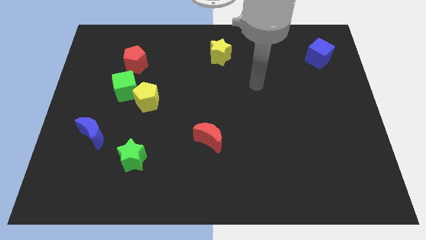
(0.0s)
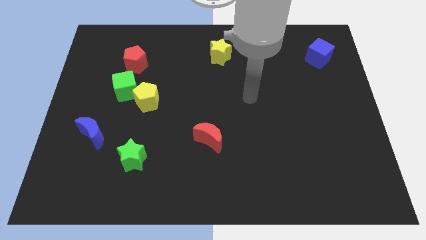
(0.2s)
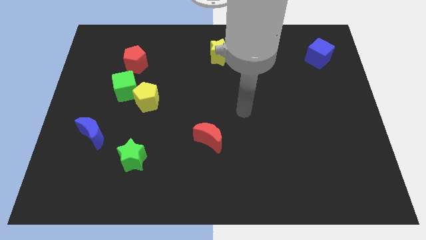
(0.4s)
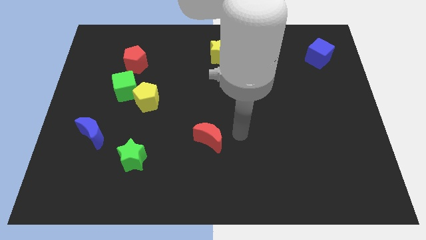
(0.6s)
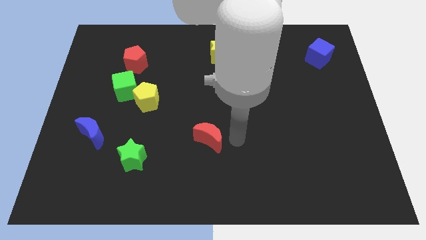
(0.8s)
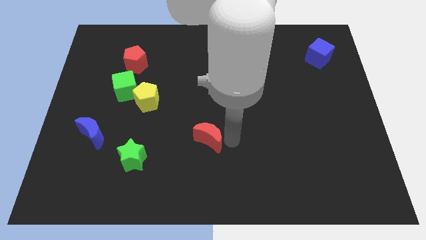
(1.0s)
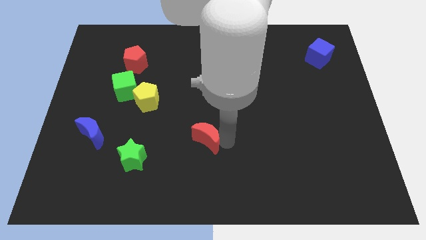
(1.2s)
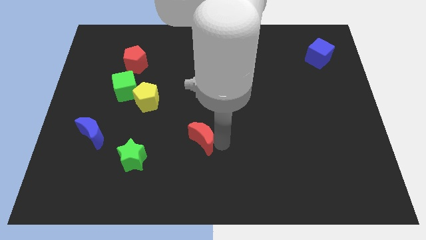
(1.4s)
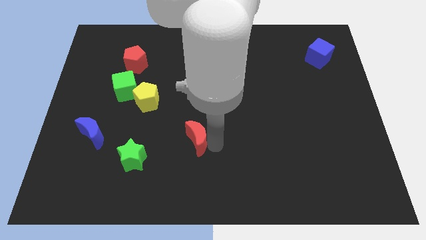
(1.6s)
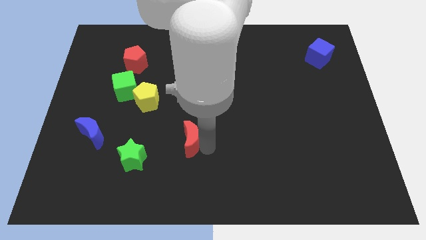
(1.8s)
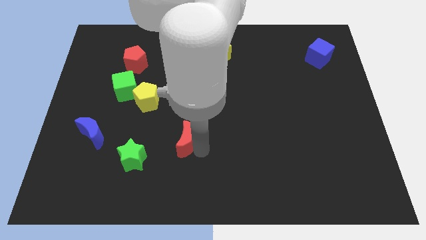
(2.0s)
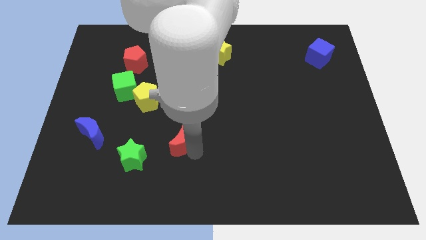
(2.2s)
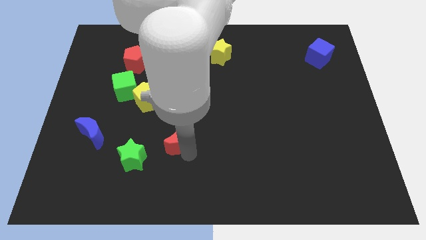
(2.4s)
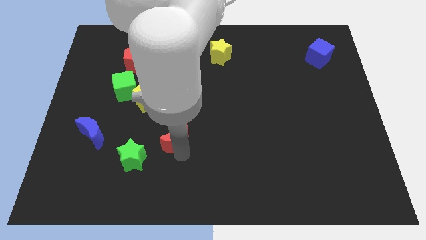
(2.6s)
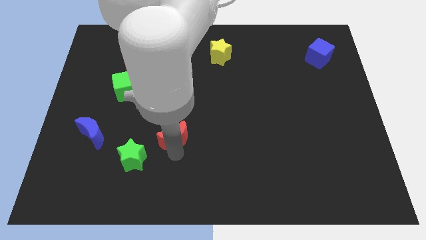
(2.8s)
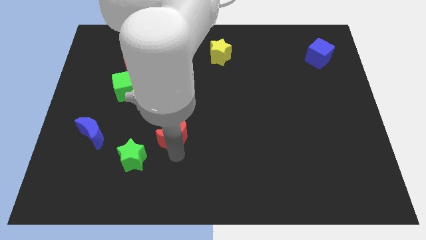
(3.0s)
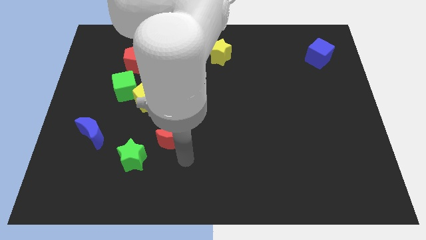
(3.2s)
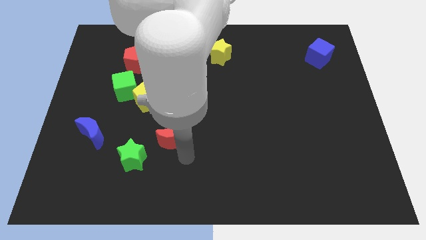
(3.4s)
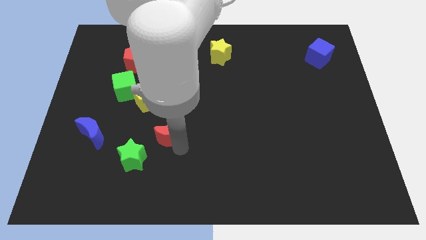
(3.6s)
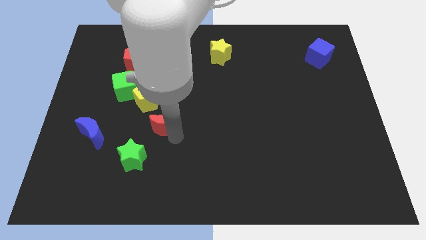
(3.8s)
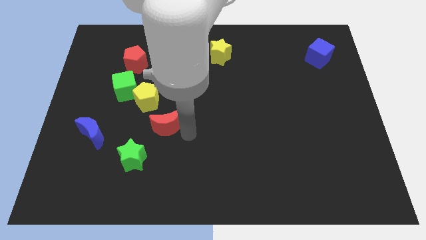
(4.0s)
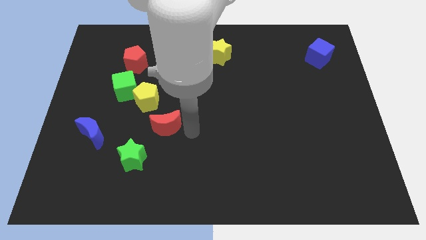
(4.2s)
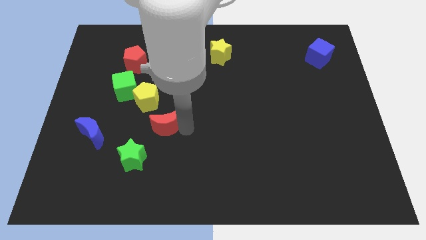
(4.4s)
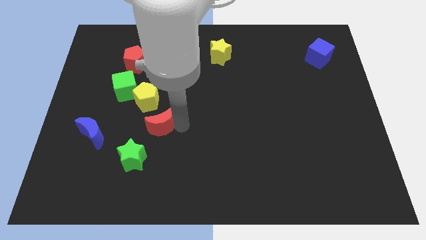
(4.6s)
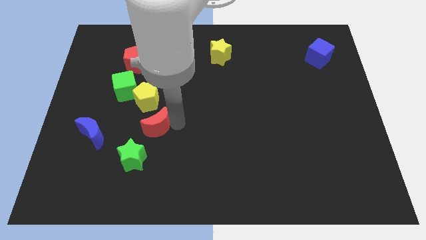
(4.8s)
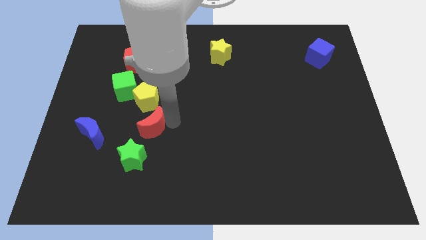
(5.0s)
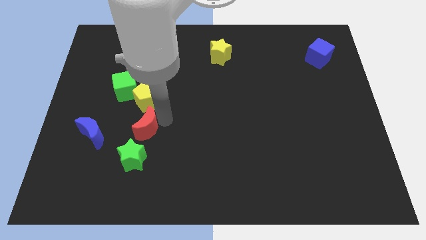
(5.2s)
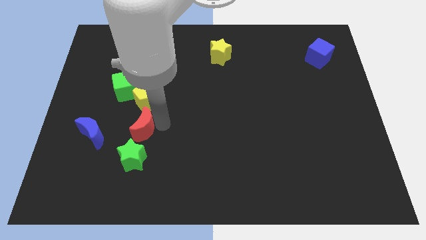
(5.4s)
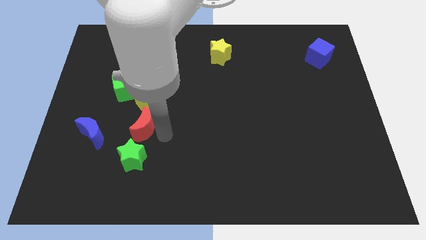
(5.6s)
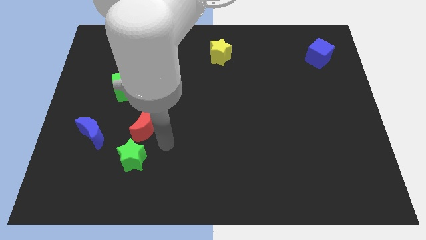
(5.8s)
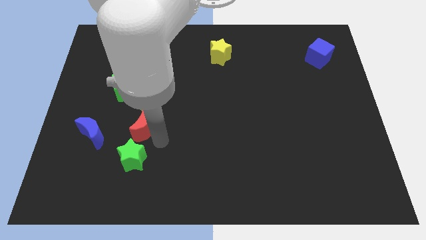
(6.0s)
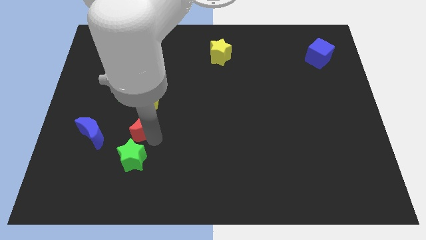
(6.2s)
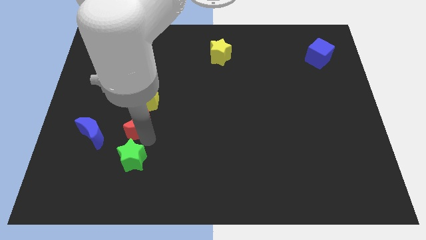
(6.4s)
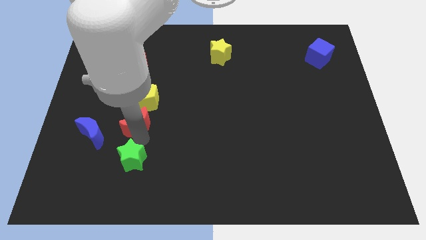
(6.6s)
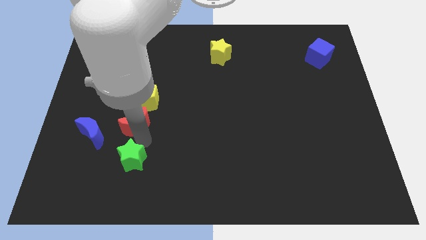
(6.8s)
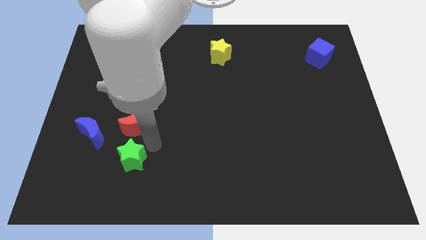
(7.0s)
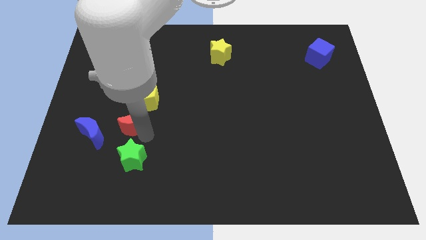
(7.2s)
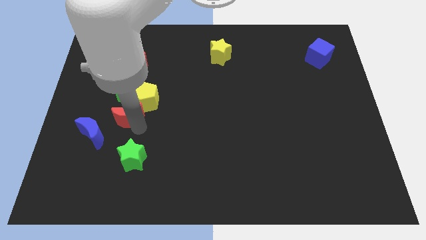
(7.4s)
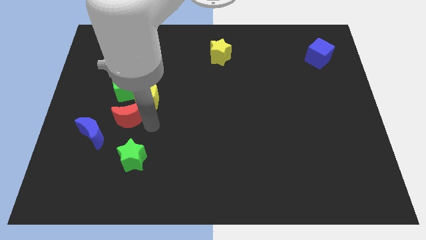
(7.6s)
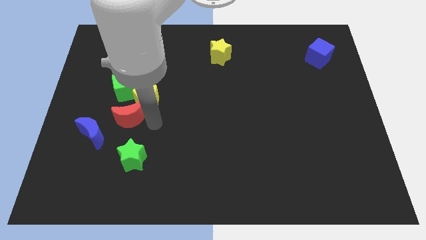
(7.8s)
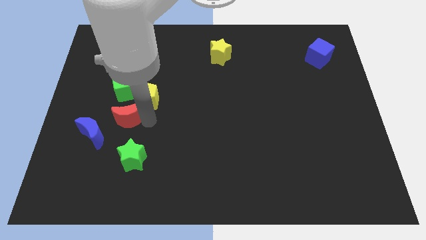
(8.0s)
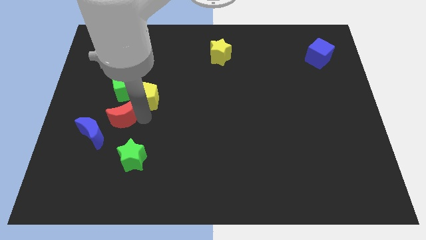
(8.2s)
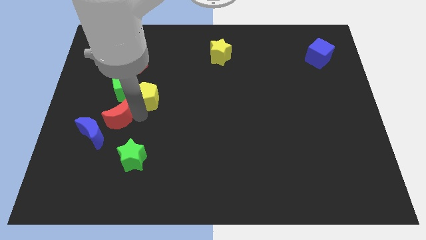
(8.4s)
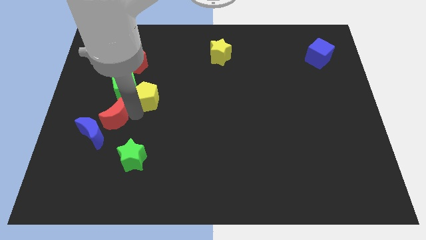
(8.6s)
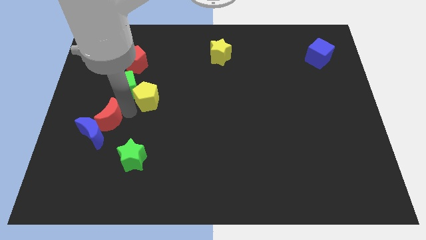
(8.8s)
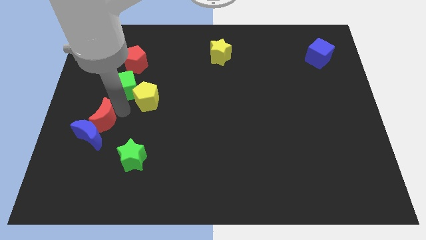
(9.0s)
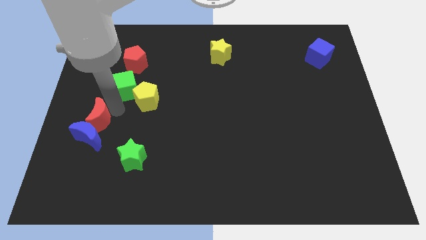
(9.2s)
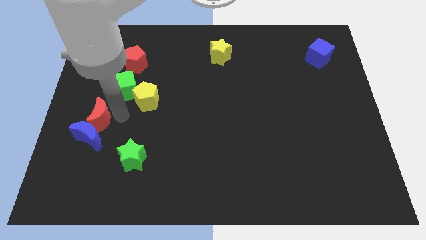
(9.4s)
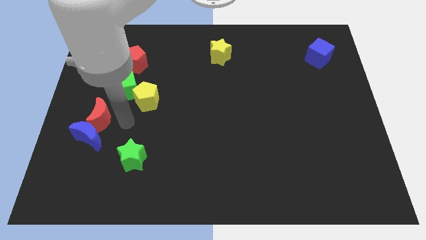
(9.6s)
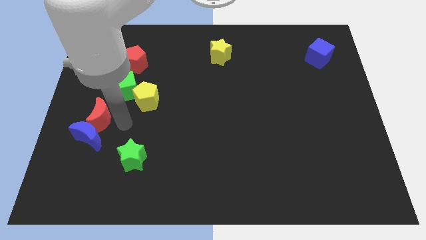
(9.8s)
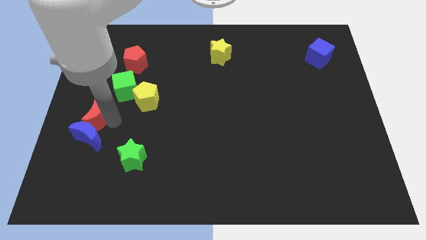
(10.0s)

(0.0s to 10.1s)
slide the red moon to the left side

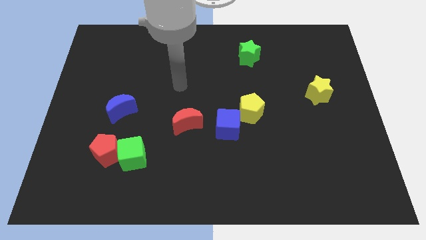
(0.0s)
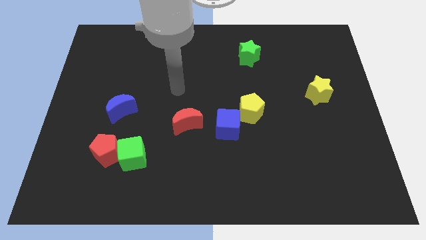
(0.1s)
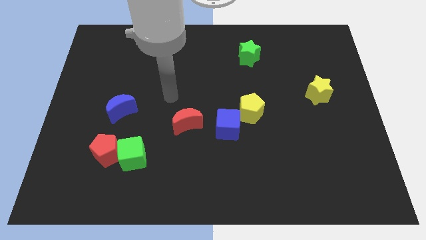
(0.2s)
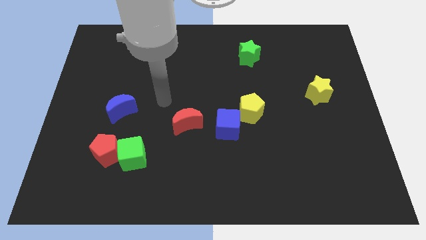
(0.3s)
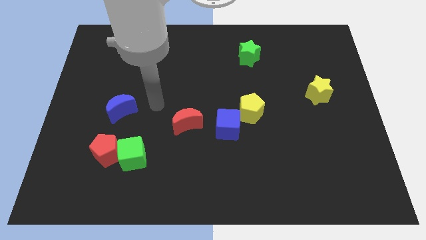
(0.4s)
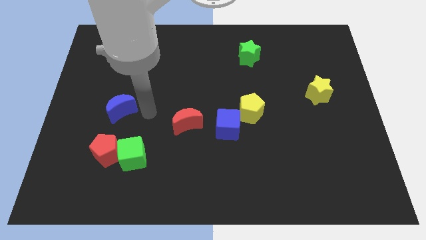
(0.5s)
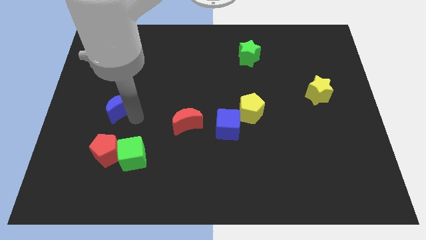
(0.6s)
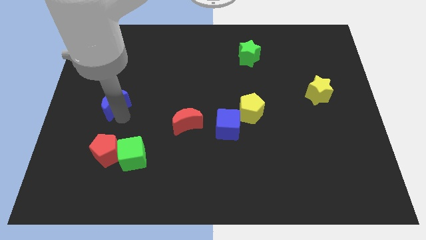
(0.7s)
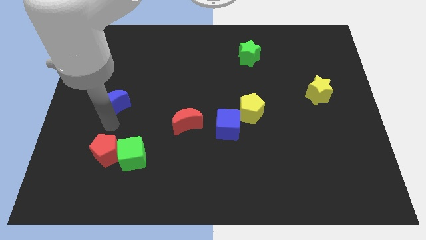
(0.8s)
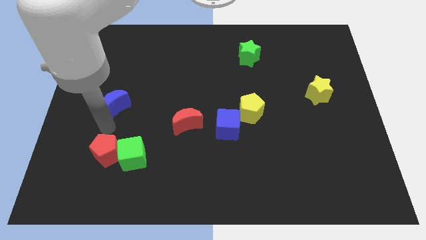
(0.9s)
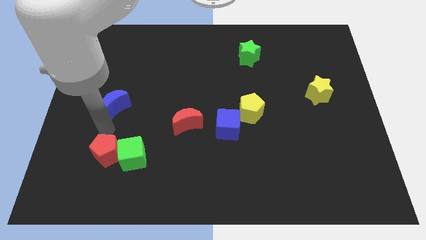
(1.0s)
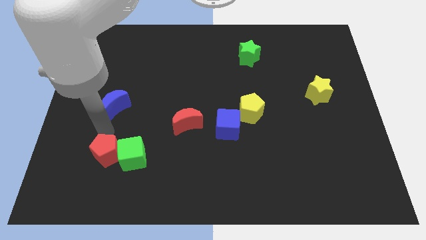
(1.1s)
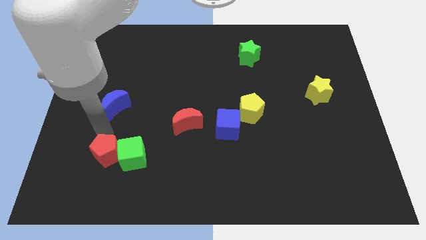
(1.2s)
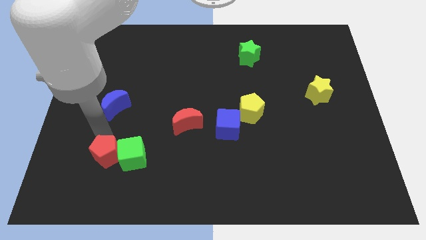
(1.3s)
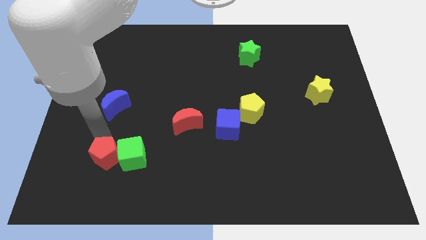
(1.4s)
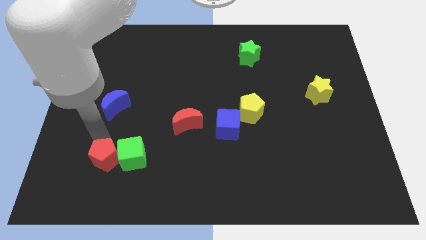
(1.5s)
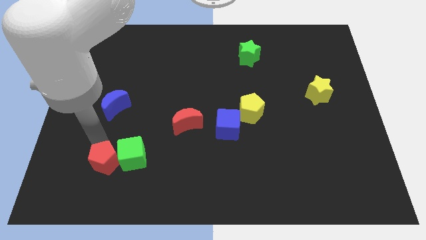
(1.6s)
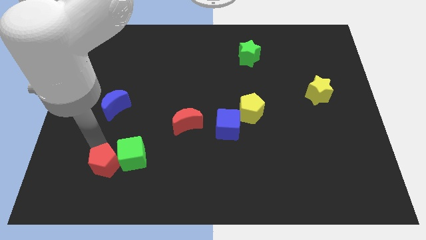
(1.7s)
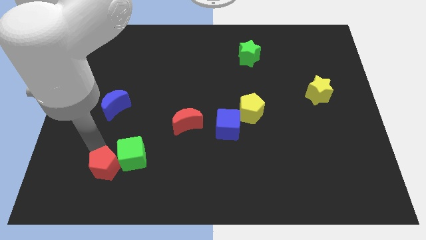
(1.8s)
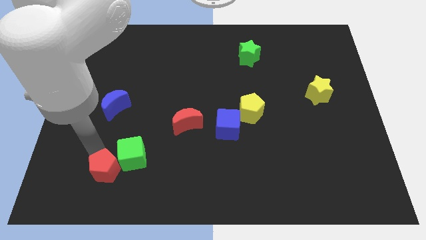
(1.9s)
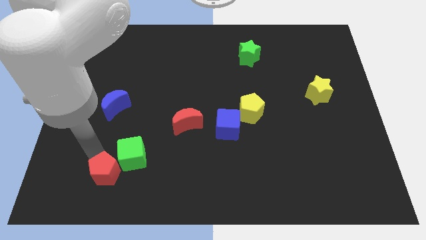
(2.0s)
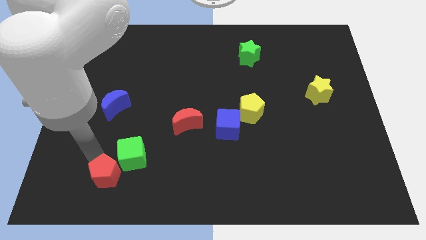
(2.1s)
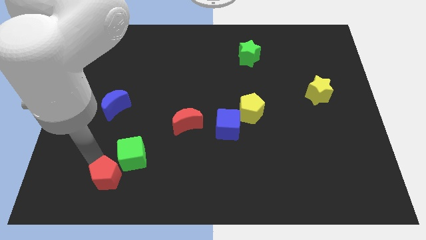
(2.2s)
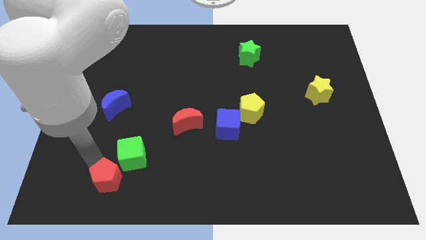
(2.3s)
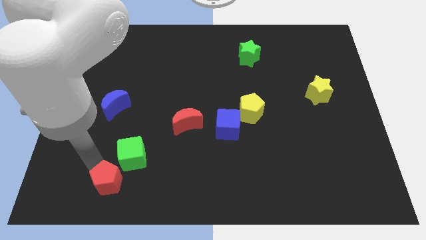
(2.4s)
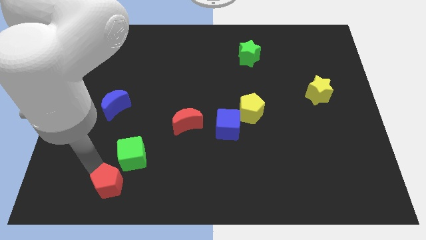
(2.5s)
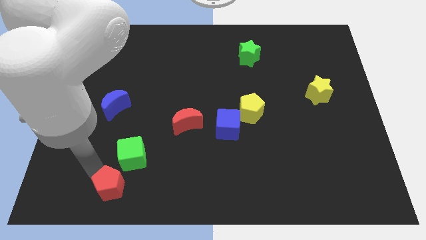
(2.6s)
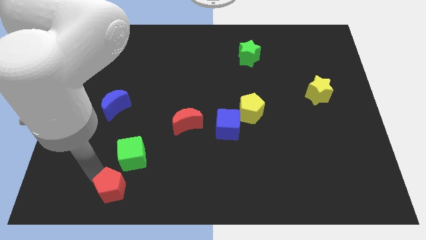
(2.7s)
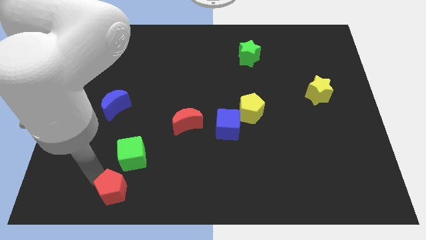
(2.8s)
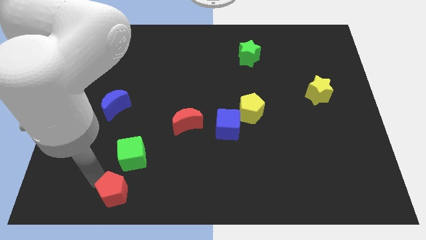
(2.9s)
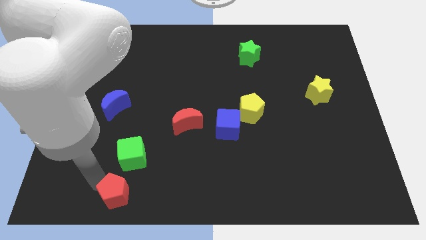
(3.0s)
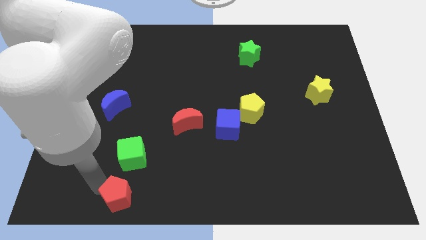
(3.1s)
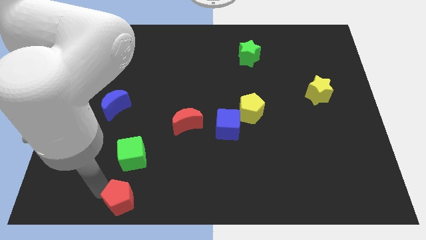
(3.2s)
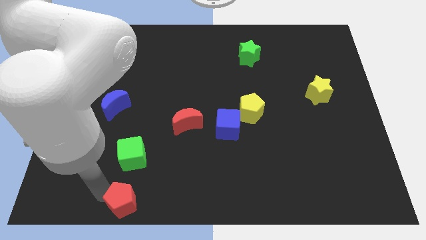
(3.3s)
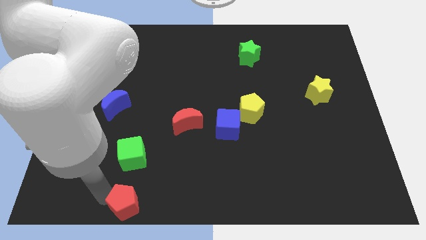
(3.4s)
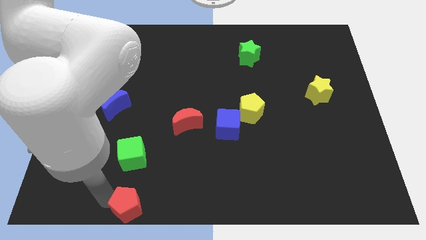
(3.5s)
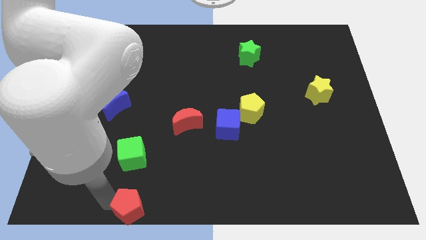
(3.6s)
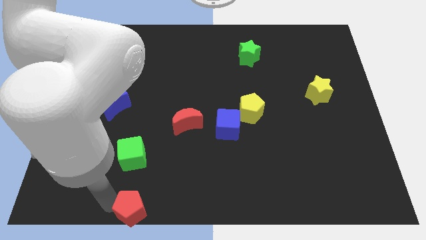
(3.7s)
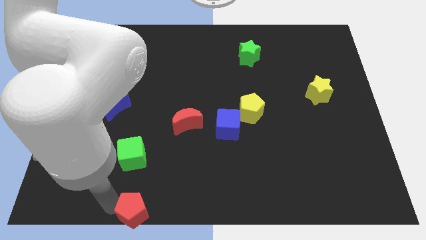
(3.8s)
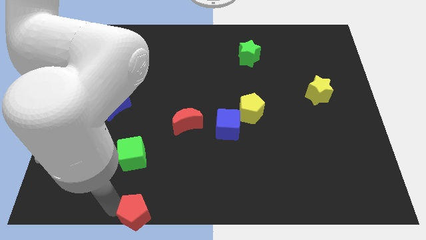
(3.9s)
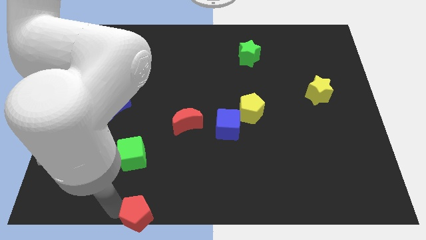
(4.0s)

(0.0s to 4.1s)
push the red pentagon to the bottom
